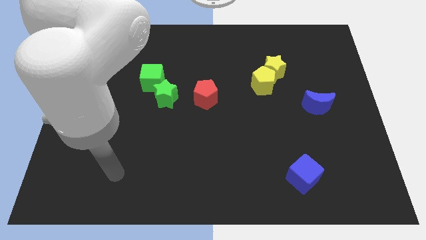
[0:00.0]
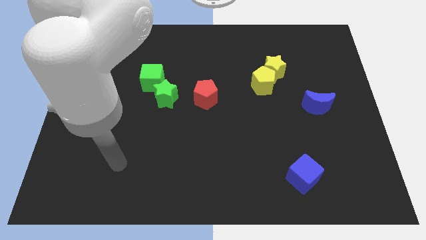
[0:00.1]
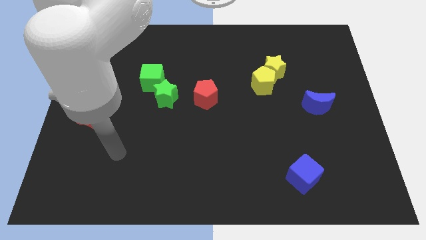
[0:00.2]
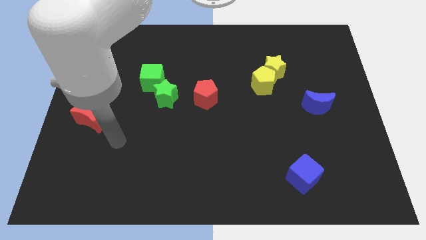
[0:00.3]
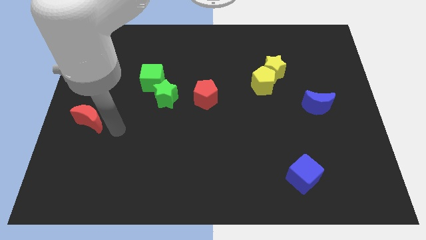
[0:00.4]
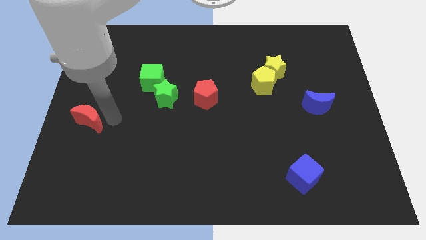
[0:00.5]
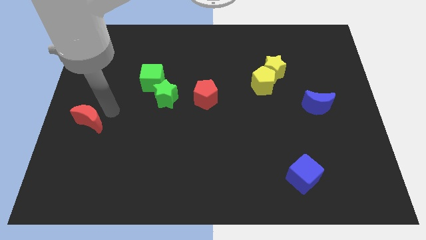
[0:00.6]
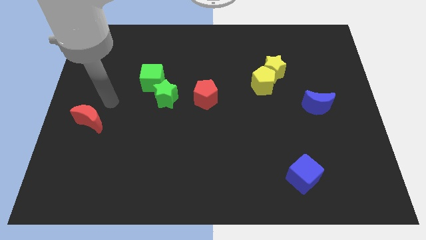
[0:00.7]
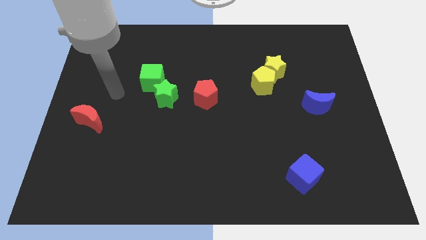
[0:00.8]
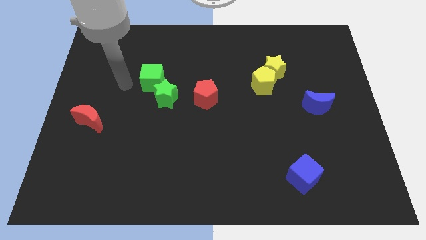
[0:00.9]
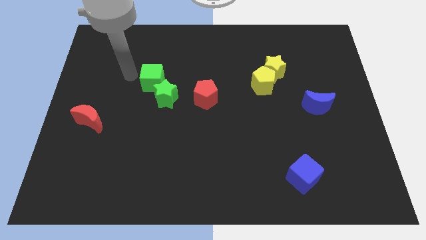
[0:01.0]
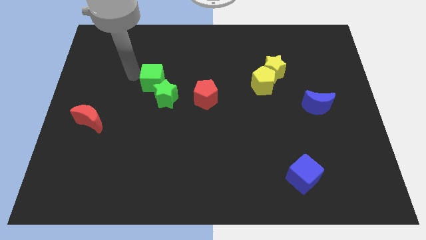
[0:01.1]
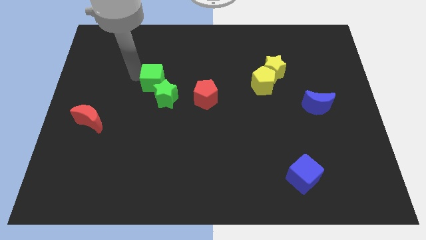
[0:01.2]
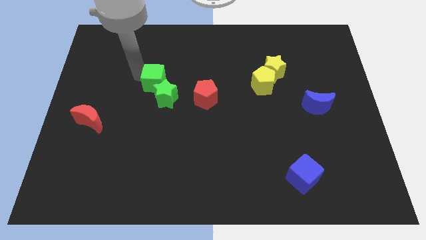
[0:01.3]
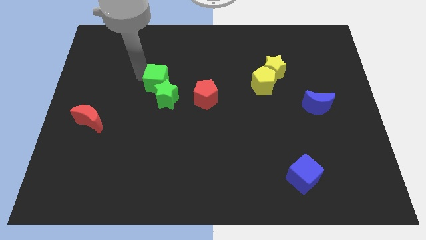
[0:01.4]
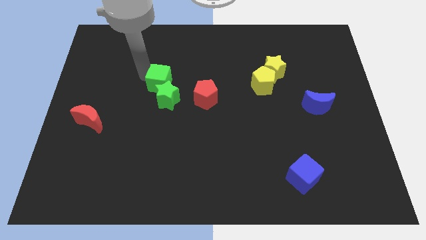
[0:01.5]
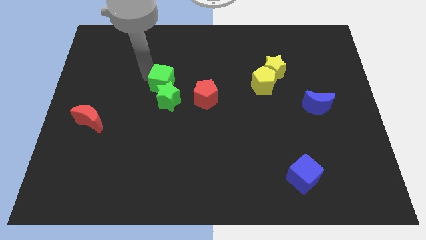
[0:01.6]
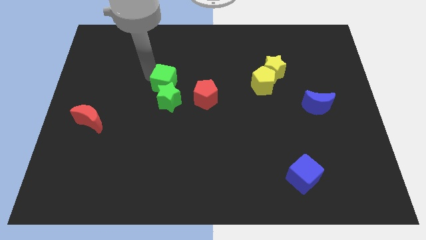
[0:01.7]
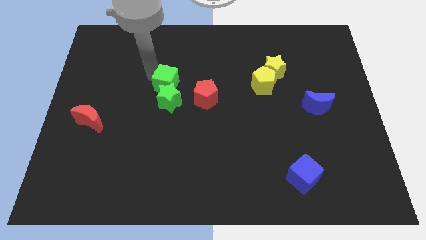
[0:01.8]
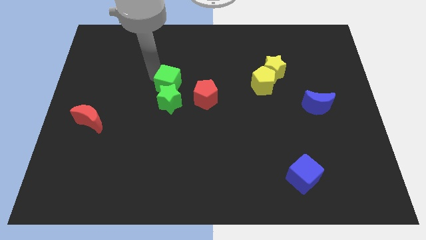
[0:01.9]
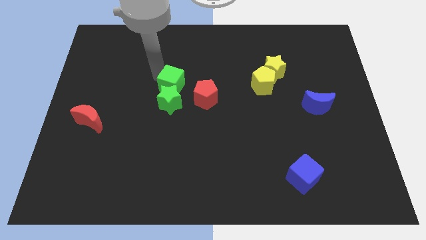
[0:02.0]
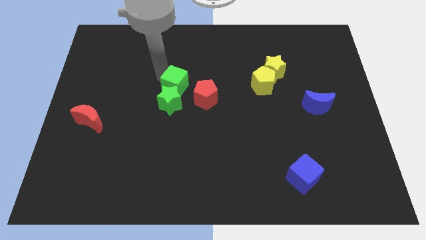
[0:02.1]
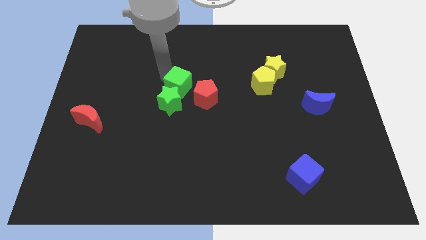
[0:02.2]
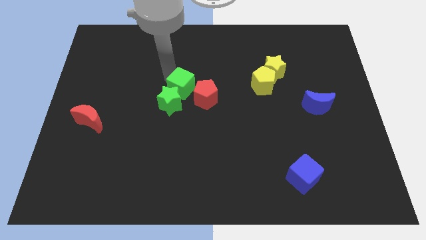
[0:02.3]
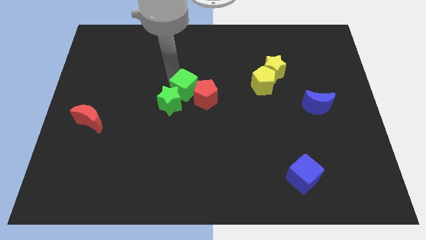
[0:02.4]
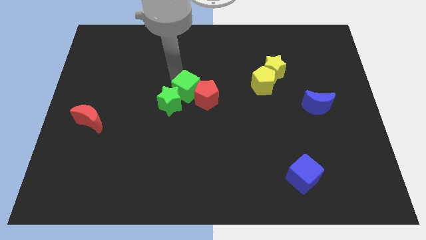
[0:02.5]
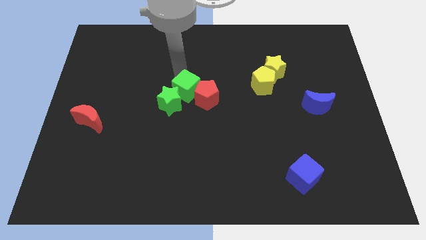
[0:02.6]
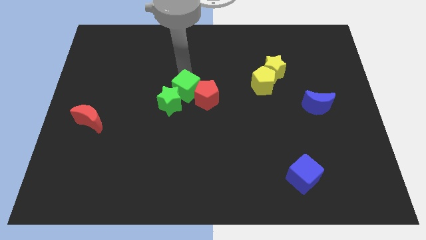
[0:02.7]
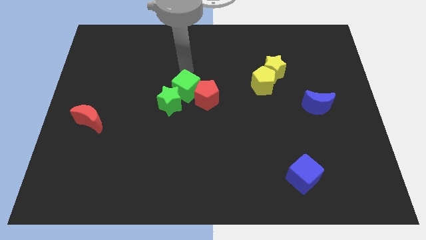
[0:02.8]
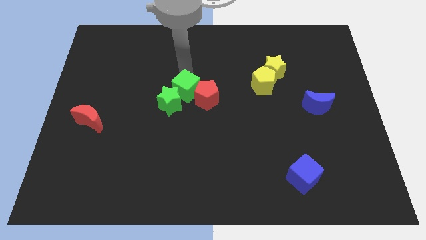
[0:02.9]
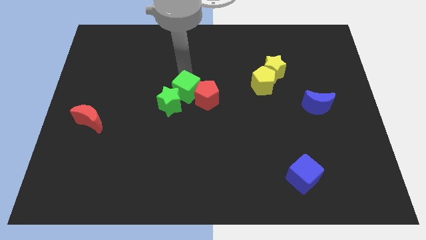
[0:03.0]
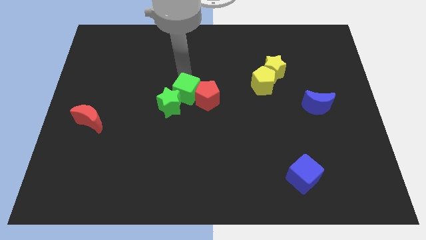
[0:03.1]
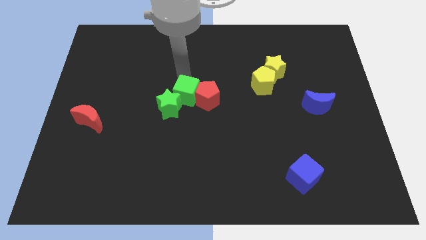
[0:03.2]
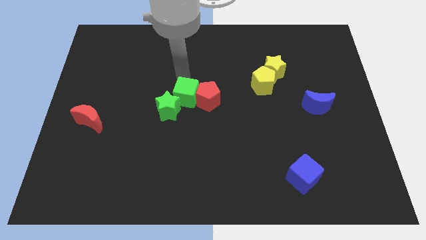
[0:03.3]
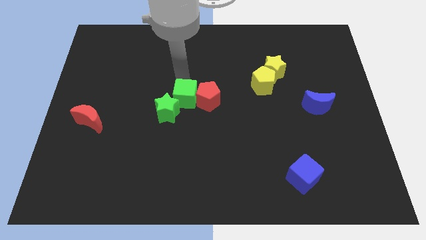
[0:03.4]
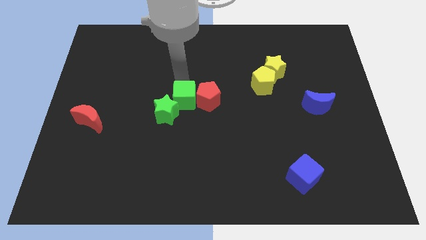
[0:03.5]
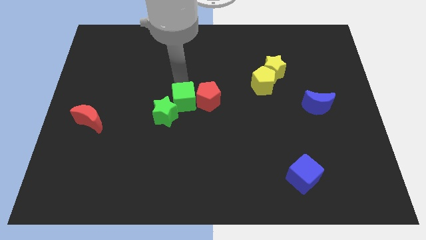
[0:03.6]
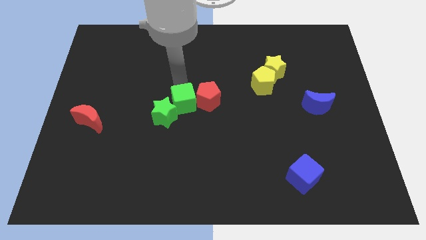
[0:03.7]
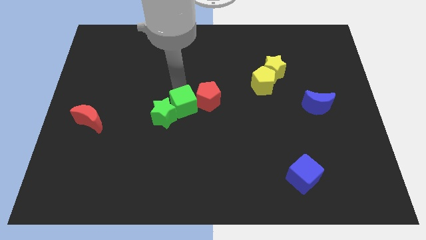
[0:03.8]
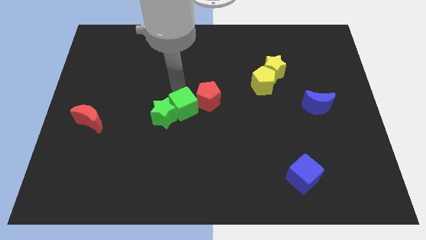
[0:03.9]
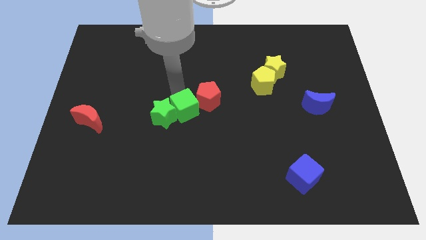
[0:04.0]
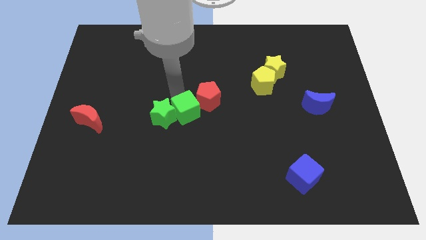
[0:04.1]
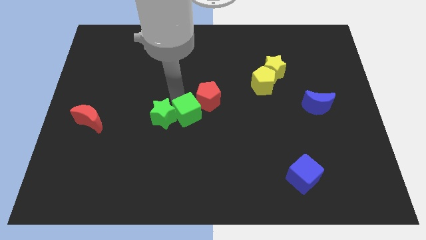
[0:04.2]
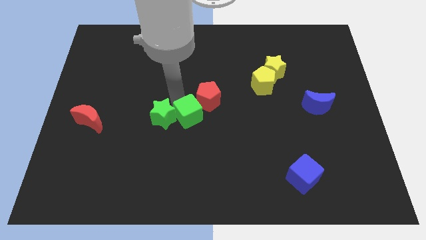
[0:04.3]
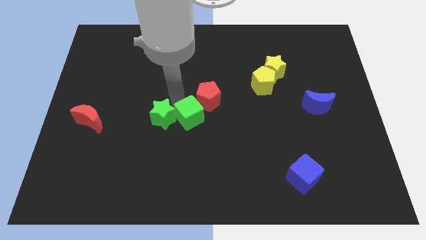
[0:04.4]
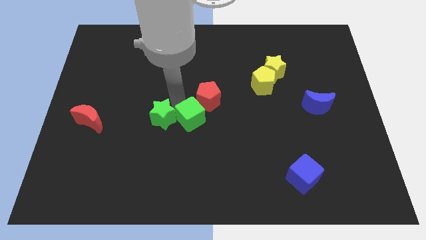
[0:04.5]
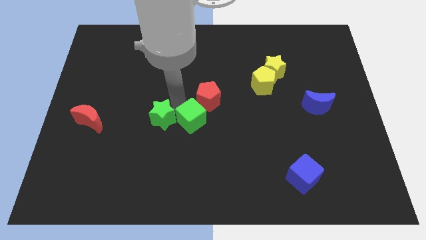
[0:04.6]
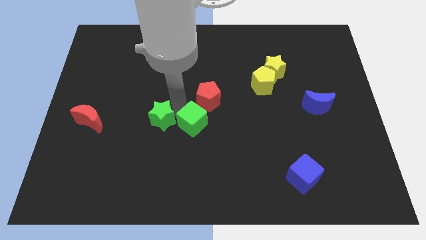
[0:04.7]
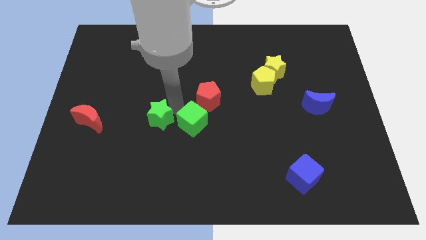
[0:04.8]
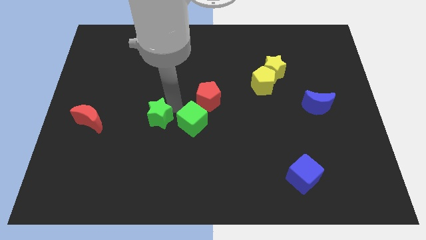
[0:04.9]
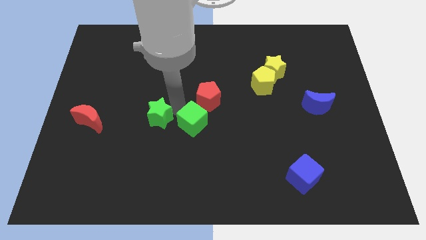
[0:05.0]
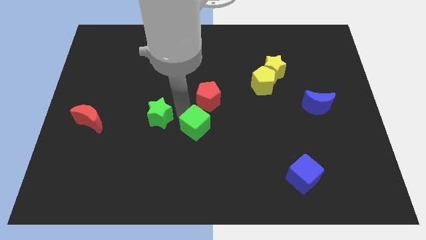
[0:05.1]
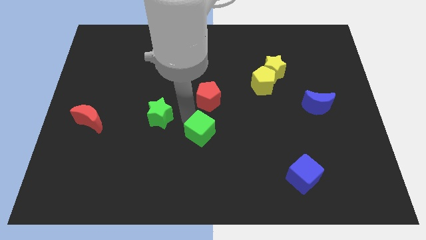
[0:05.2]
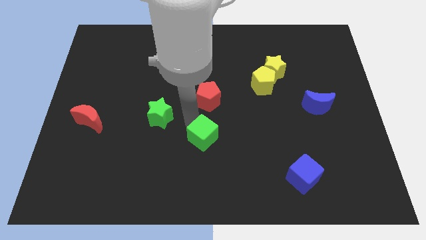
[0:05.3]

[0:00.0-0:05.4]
push the green cube diagonally downwards and to the right

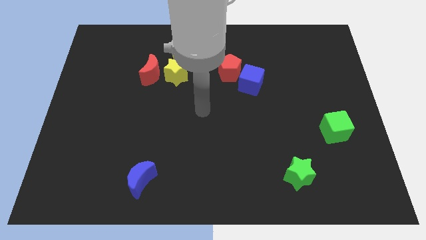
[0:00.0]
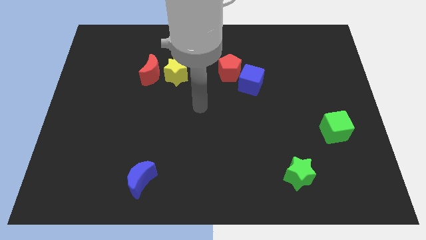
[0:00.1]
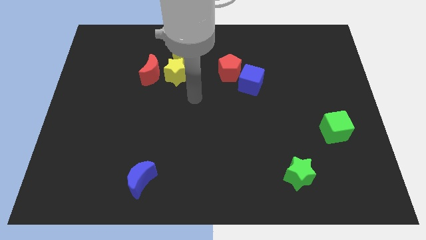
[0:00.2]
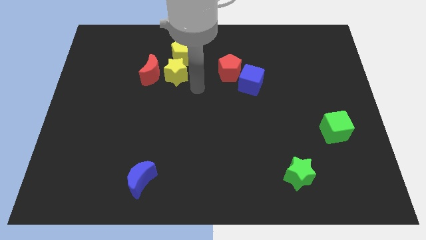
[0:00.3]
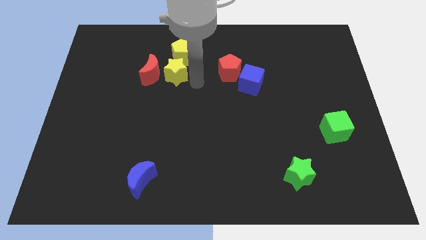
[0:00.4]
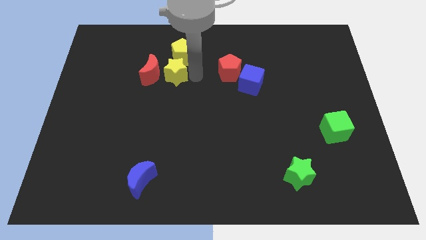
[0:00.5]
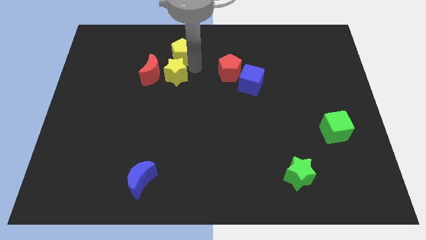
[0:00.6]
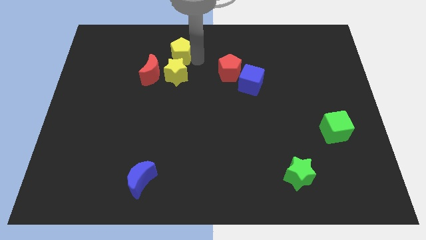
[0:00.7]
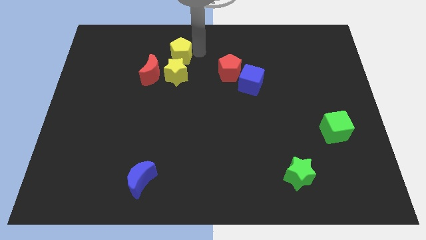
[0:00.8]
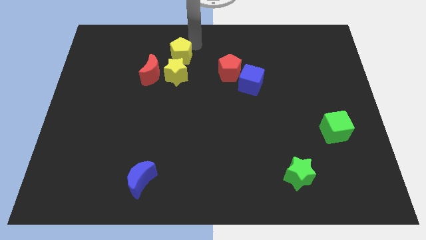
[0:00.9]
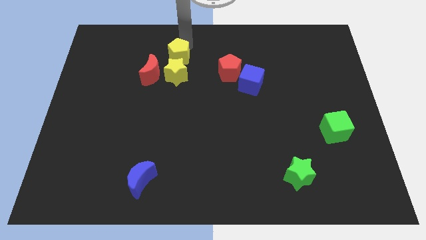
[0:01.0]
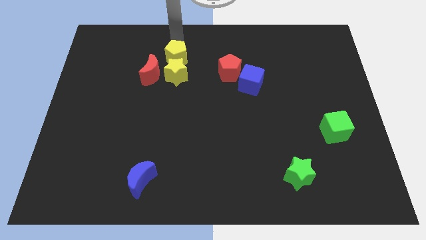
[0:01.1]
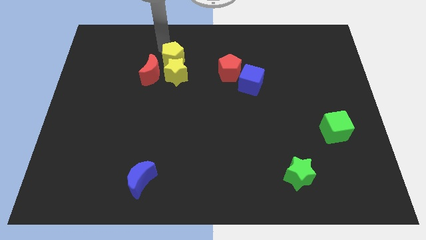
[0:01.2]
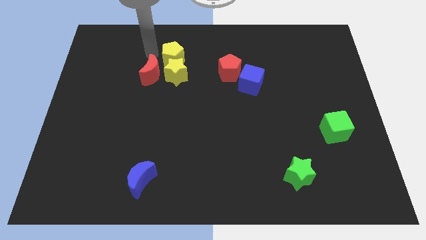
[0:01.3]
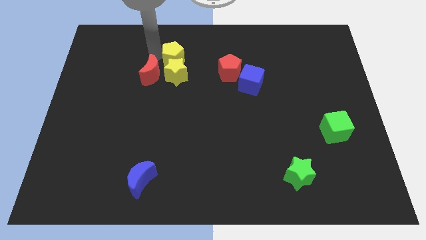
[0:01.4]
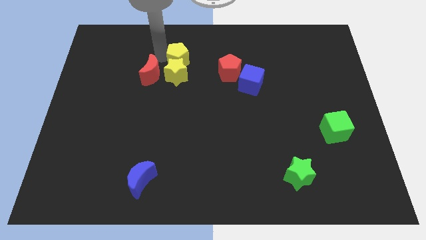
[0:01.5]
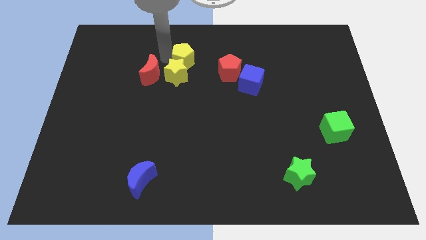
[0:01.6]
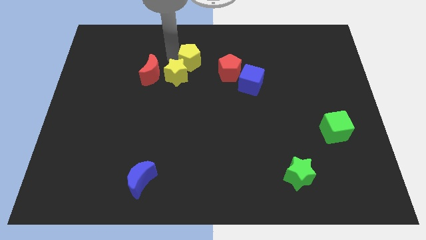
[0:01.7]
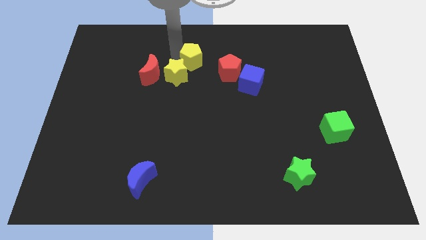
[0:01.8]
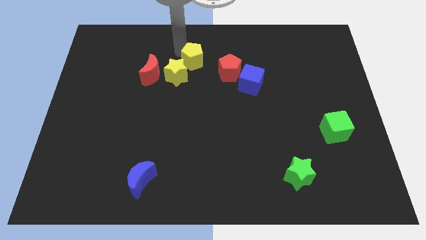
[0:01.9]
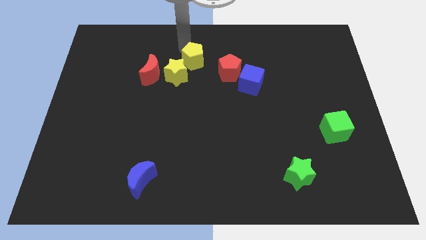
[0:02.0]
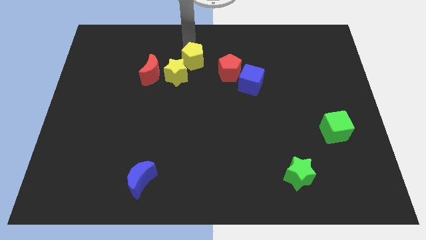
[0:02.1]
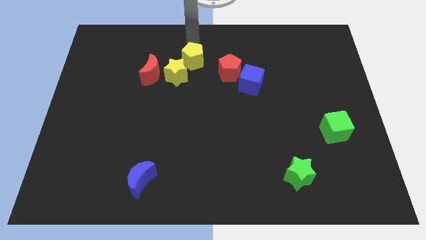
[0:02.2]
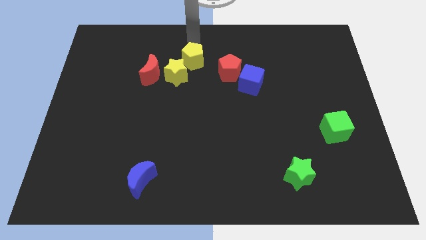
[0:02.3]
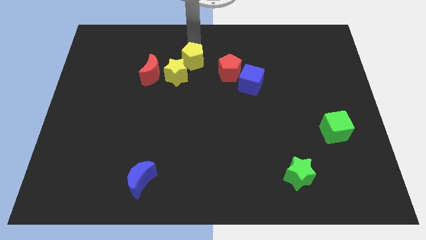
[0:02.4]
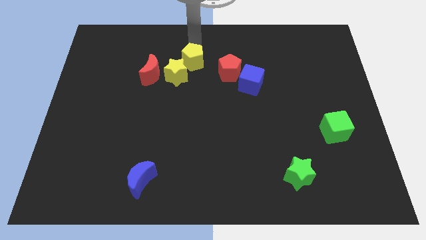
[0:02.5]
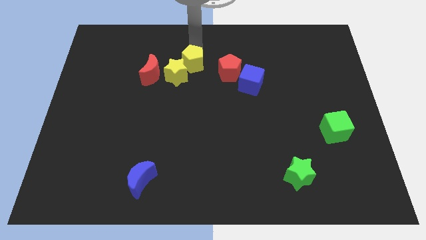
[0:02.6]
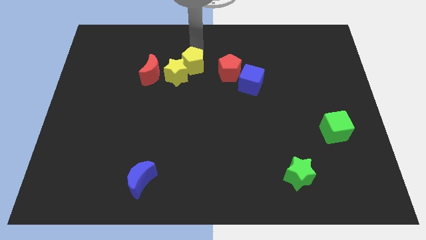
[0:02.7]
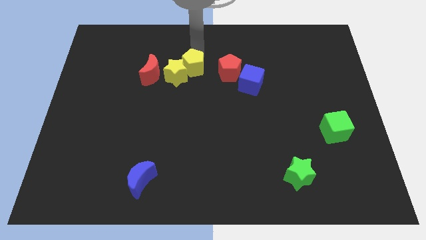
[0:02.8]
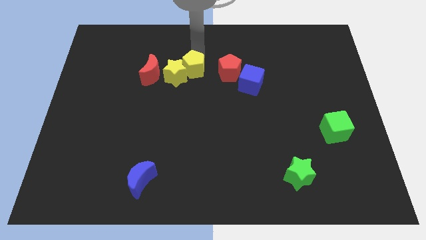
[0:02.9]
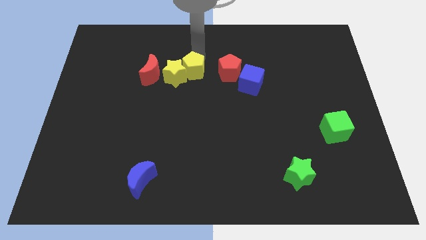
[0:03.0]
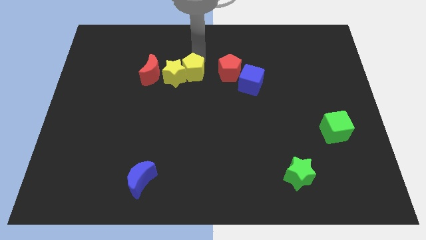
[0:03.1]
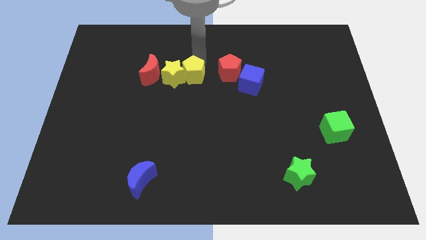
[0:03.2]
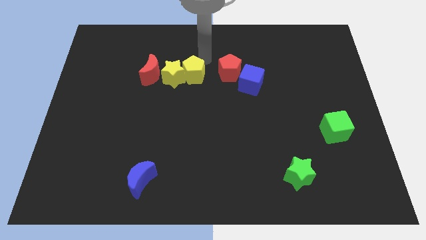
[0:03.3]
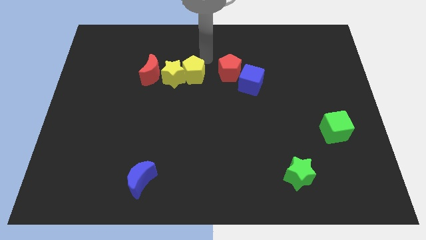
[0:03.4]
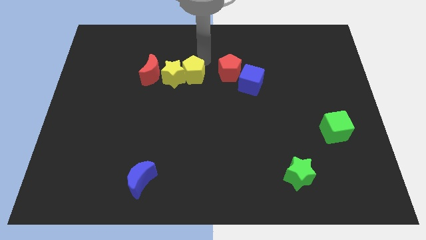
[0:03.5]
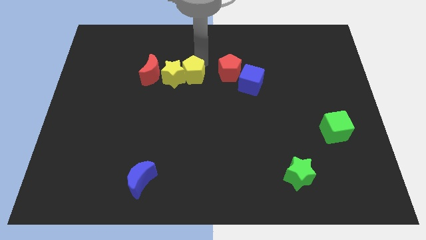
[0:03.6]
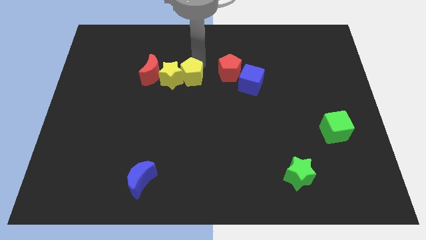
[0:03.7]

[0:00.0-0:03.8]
move the yellow pentagon slightly down
